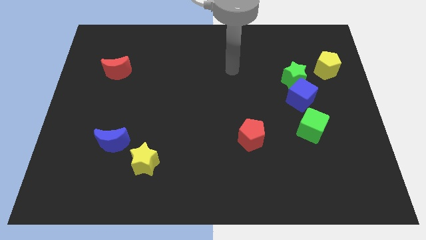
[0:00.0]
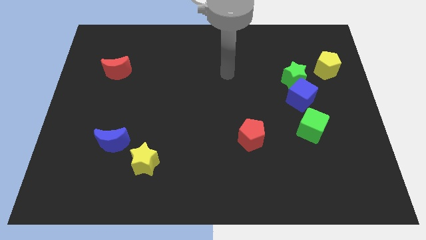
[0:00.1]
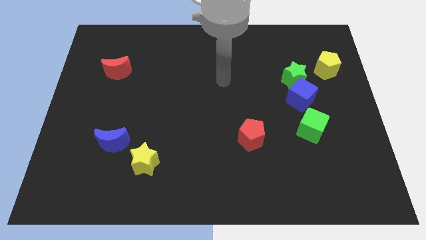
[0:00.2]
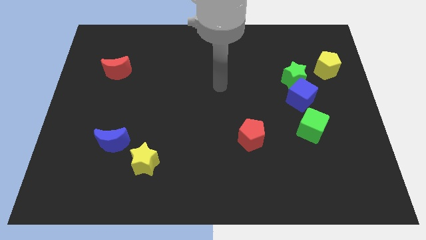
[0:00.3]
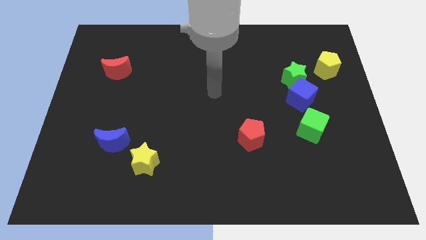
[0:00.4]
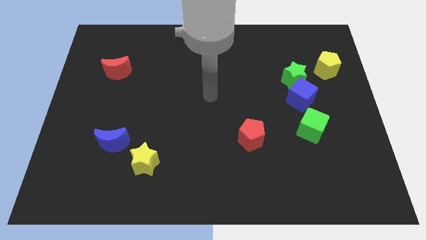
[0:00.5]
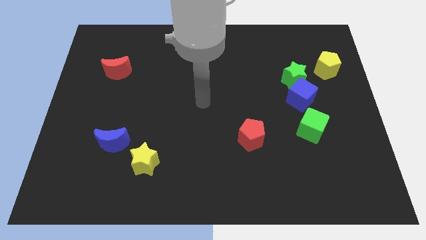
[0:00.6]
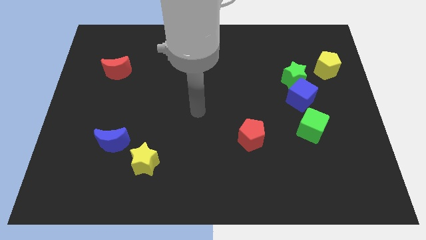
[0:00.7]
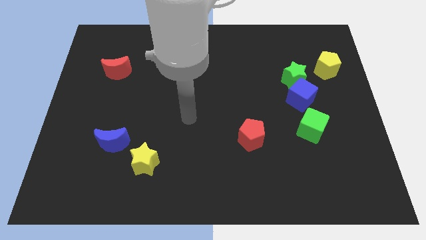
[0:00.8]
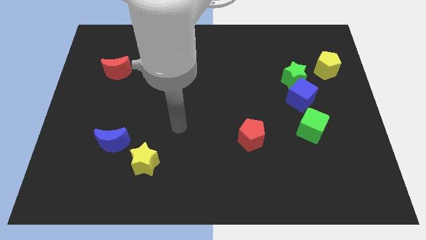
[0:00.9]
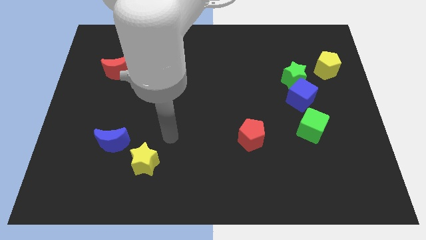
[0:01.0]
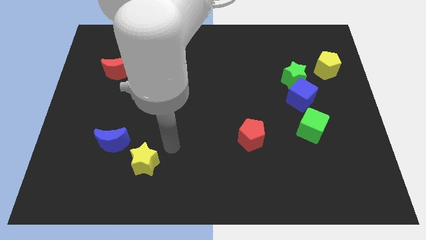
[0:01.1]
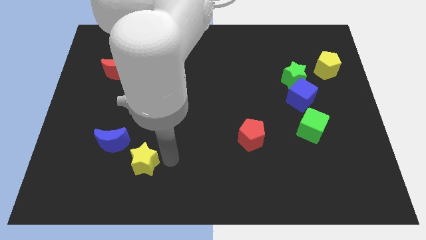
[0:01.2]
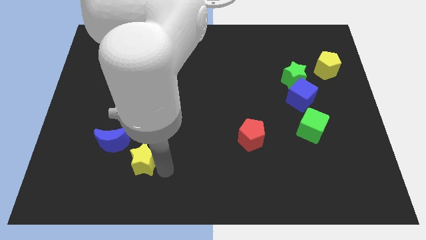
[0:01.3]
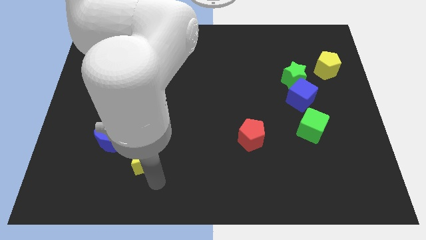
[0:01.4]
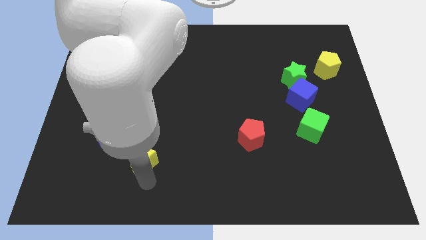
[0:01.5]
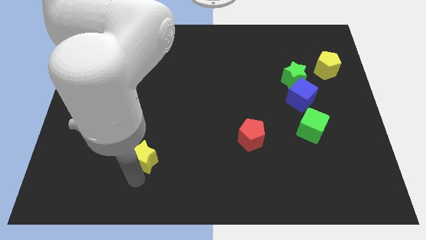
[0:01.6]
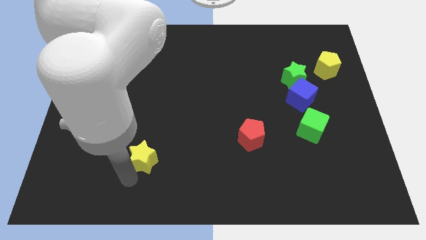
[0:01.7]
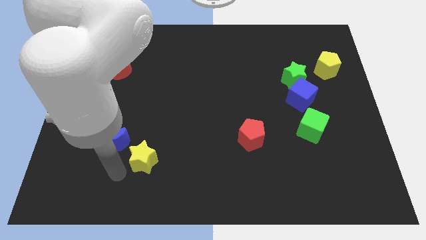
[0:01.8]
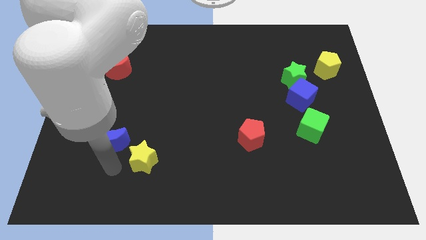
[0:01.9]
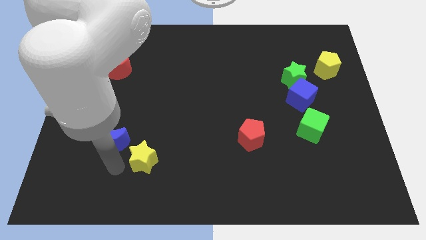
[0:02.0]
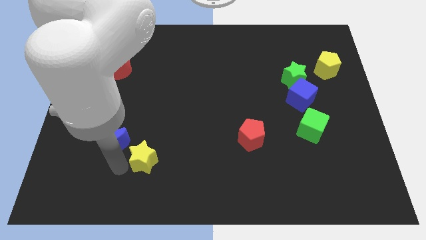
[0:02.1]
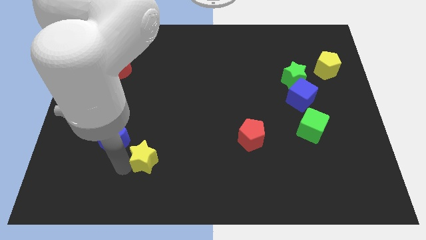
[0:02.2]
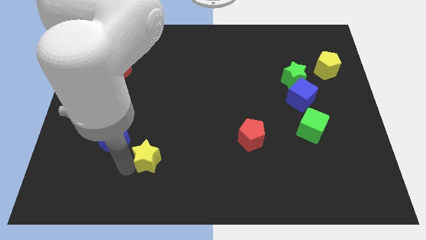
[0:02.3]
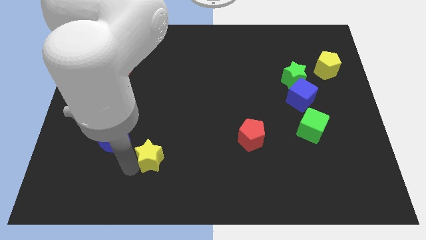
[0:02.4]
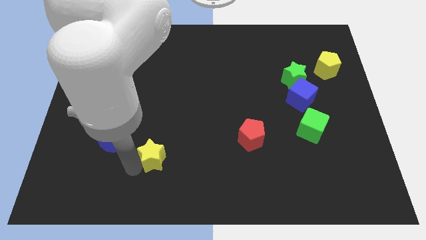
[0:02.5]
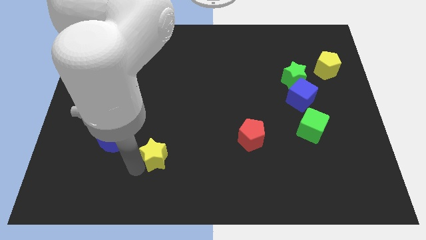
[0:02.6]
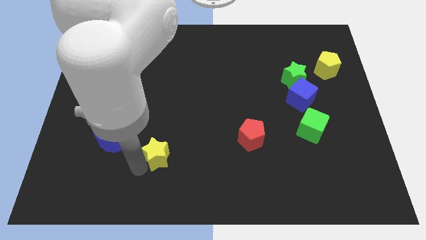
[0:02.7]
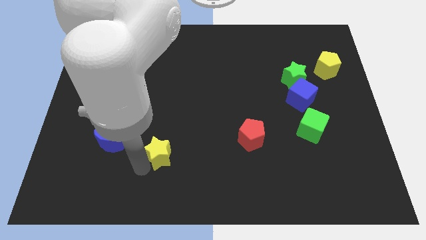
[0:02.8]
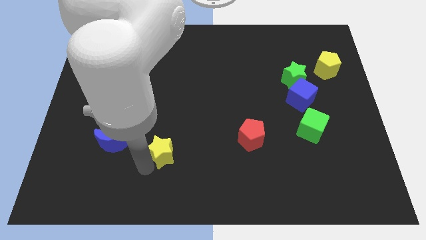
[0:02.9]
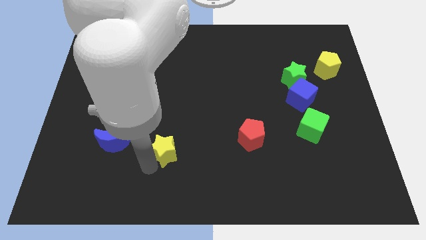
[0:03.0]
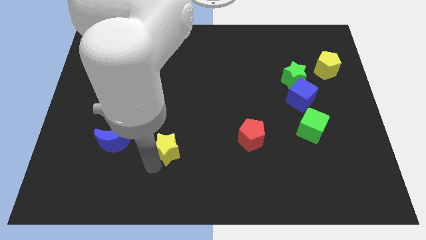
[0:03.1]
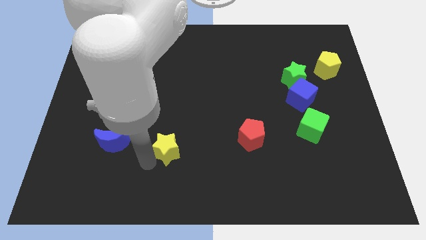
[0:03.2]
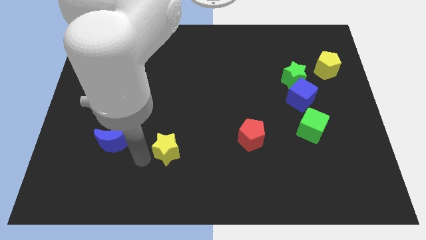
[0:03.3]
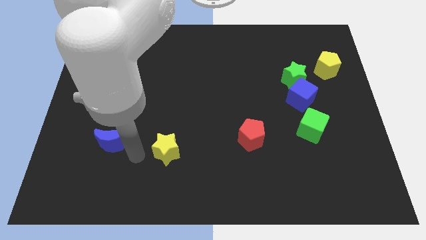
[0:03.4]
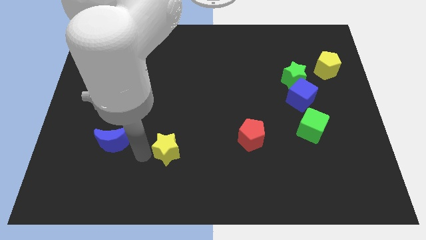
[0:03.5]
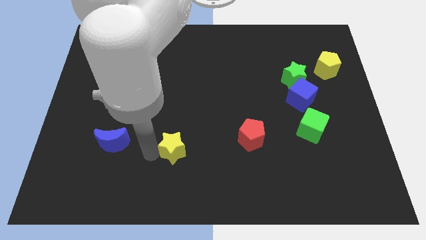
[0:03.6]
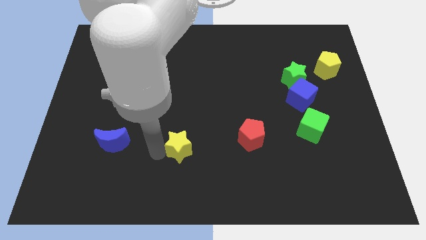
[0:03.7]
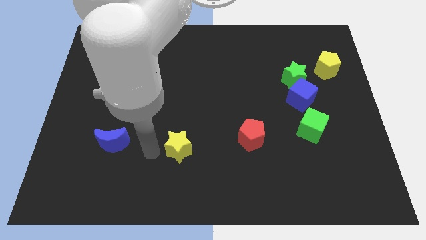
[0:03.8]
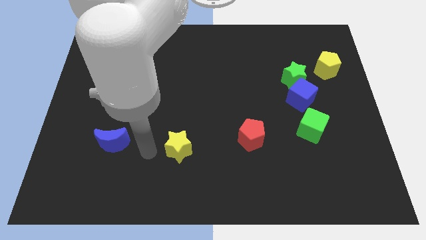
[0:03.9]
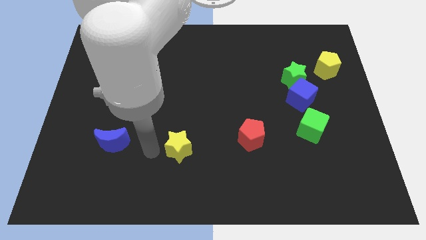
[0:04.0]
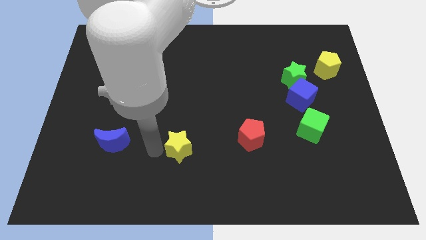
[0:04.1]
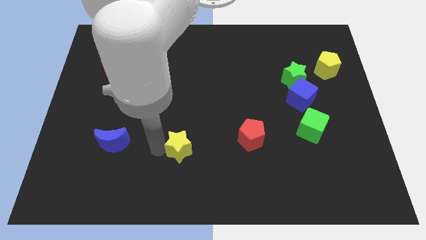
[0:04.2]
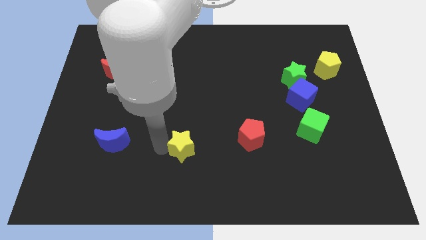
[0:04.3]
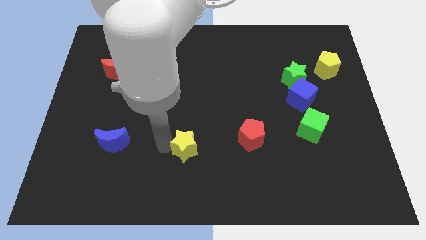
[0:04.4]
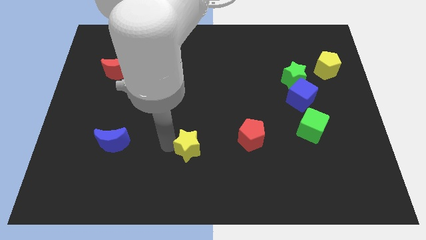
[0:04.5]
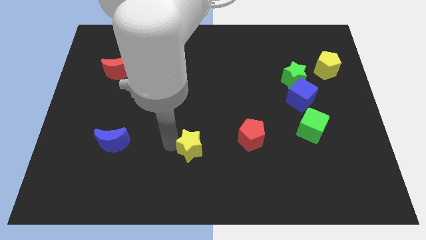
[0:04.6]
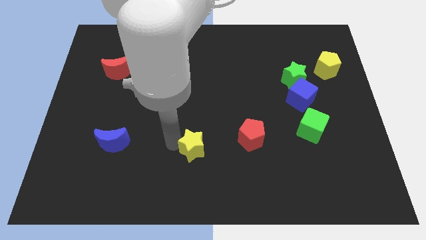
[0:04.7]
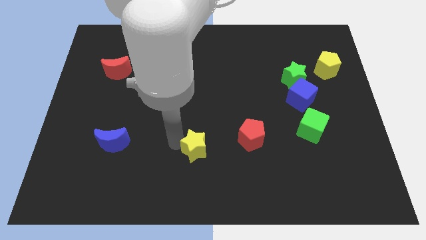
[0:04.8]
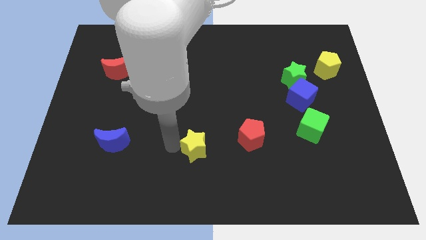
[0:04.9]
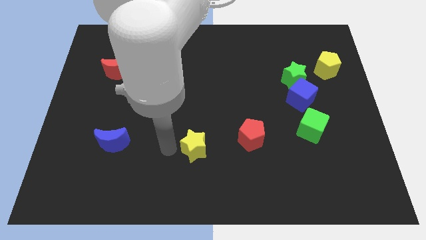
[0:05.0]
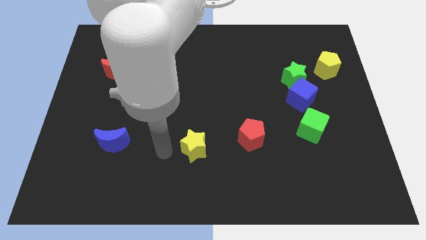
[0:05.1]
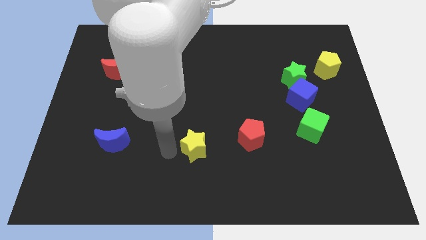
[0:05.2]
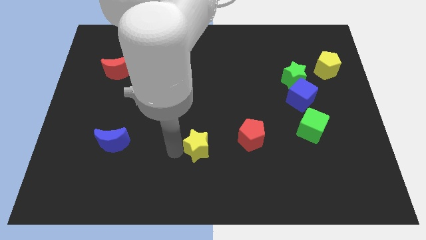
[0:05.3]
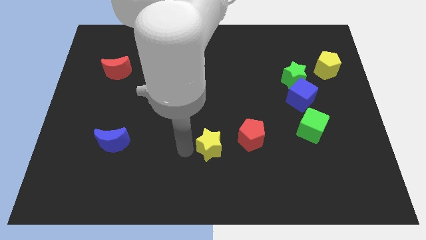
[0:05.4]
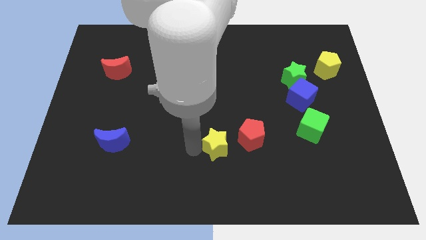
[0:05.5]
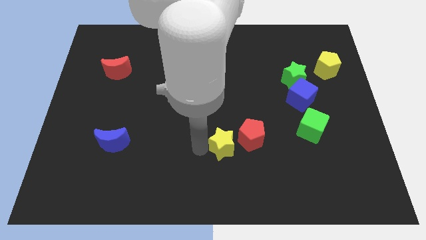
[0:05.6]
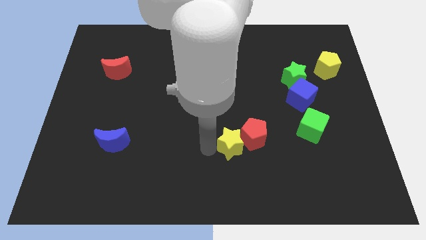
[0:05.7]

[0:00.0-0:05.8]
put the yellow star close to the red pentagon

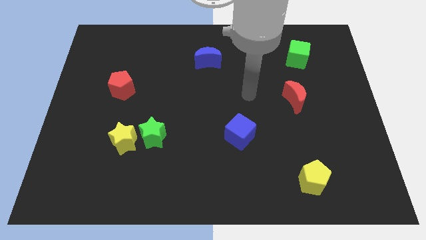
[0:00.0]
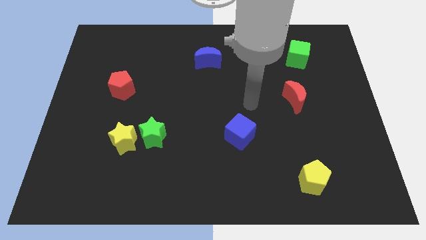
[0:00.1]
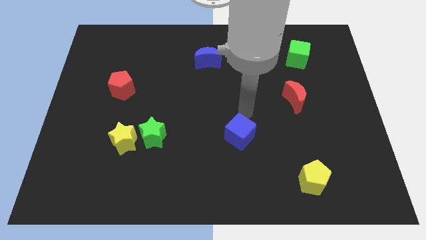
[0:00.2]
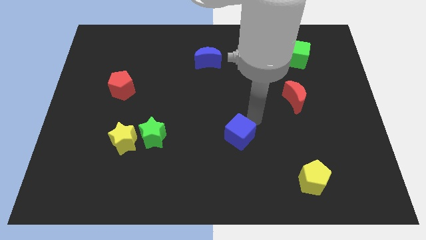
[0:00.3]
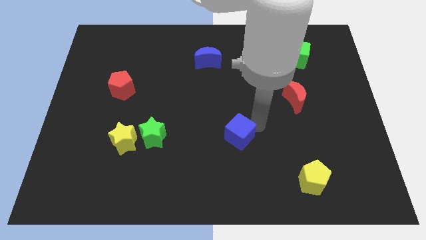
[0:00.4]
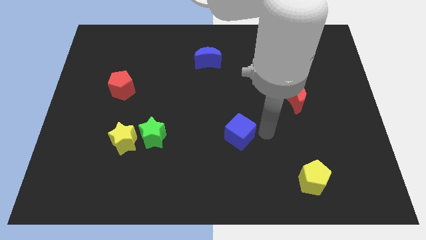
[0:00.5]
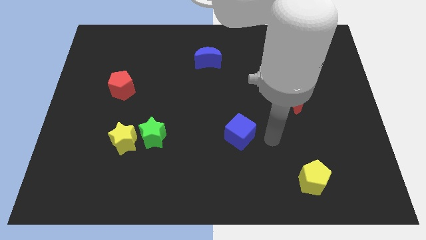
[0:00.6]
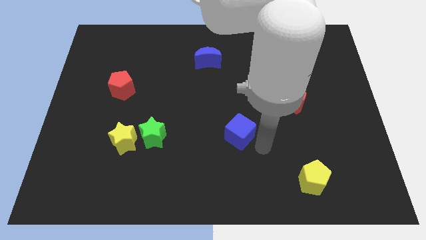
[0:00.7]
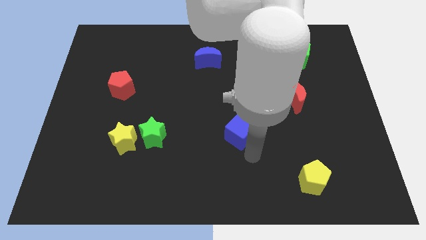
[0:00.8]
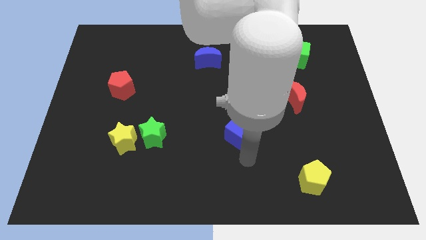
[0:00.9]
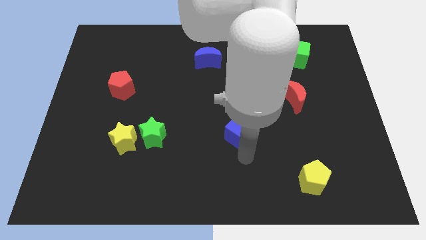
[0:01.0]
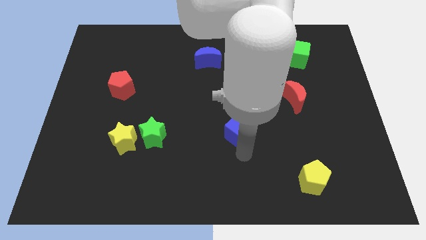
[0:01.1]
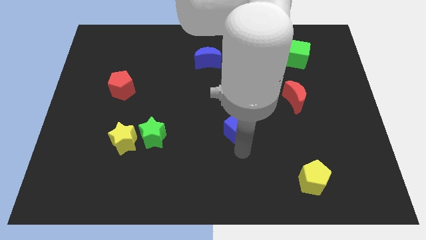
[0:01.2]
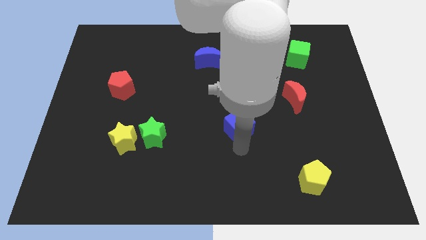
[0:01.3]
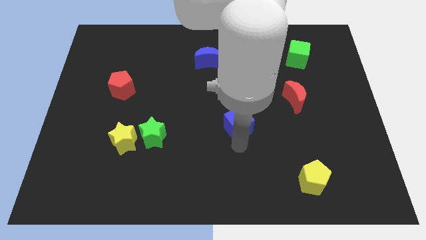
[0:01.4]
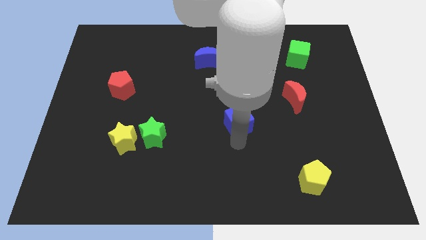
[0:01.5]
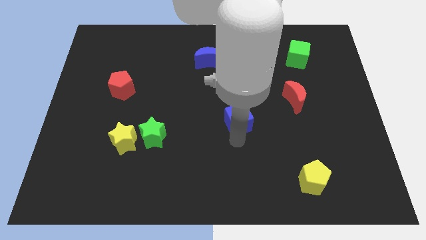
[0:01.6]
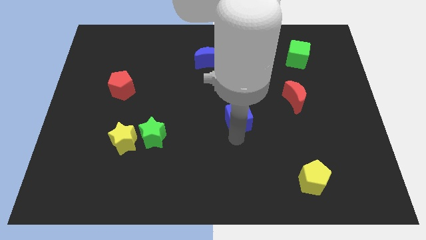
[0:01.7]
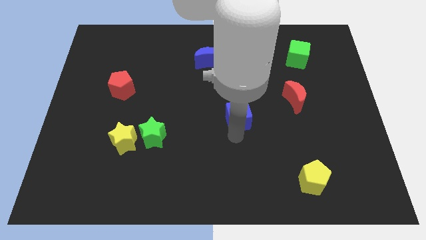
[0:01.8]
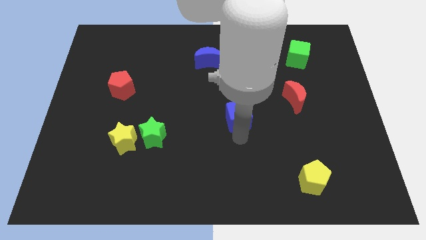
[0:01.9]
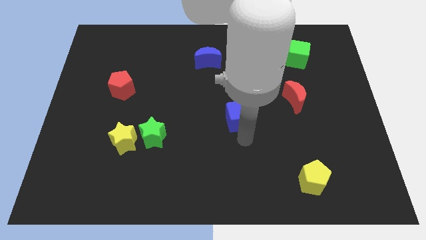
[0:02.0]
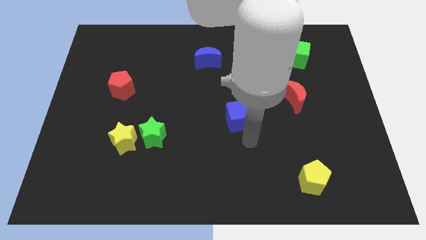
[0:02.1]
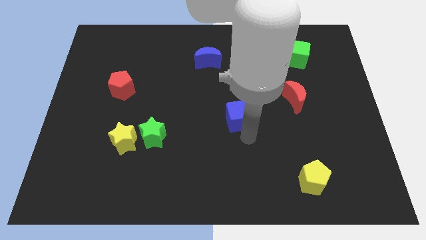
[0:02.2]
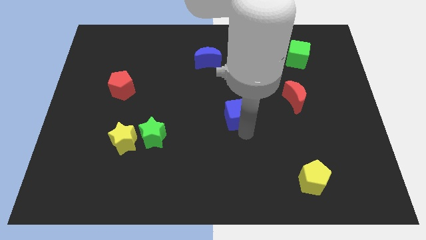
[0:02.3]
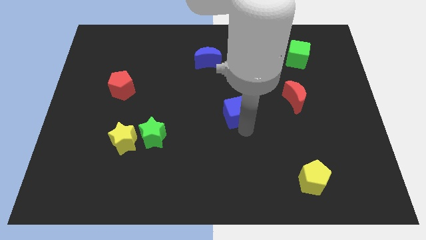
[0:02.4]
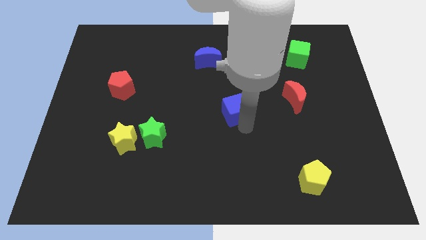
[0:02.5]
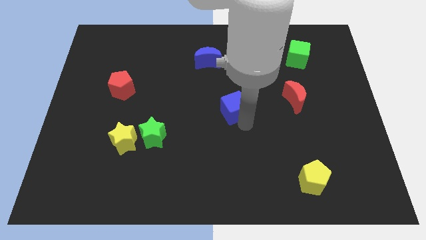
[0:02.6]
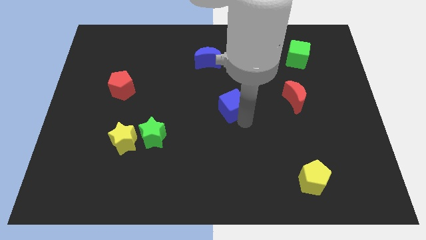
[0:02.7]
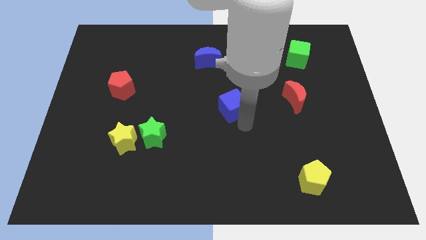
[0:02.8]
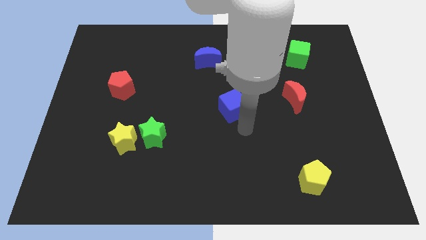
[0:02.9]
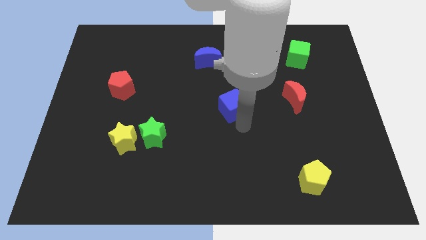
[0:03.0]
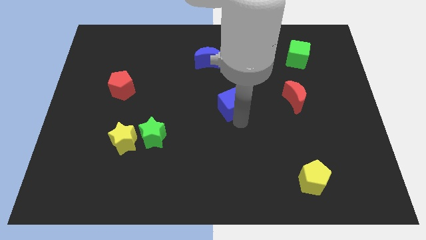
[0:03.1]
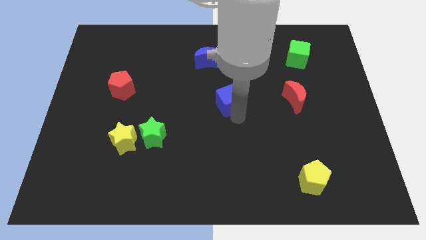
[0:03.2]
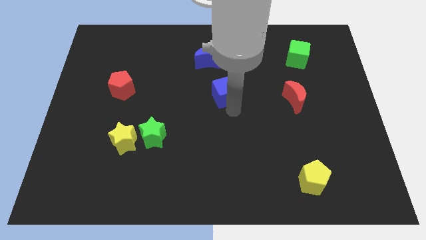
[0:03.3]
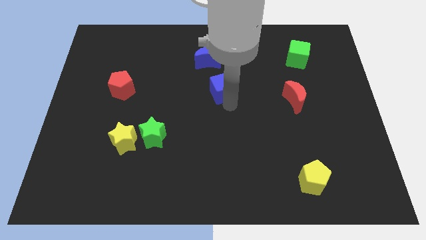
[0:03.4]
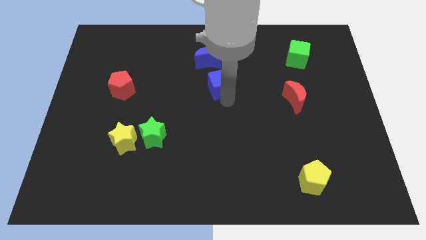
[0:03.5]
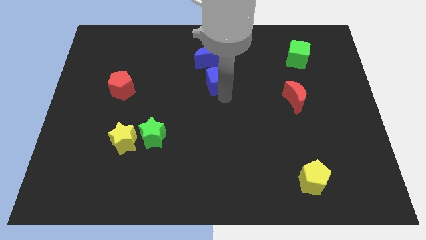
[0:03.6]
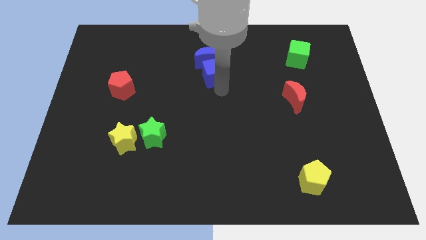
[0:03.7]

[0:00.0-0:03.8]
put the blue cube to the blue moon
